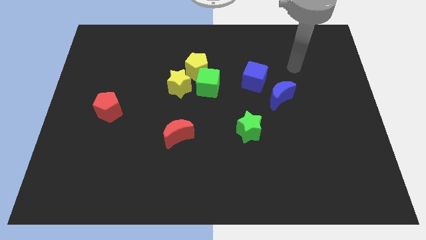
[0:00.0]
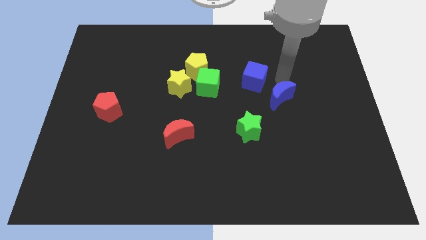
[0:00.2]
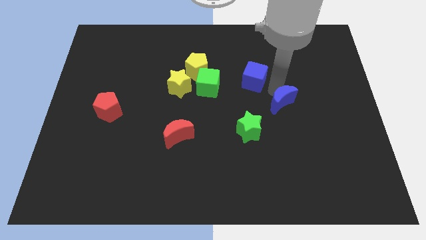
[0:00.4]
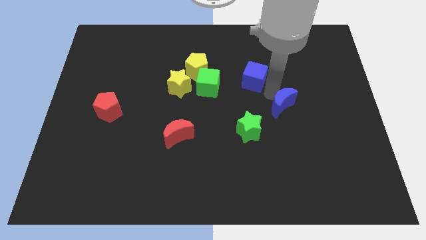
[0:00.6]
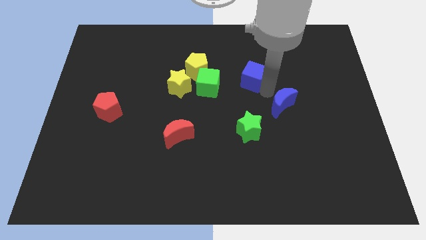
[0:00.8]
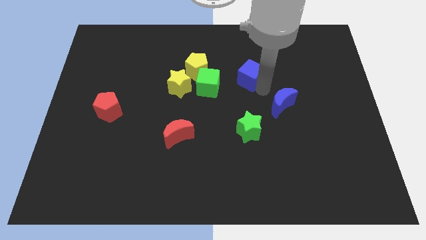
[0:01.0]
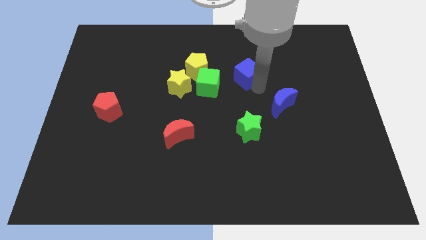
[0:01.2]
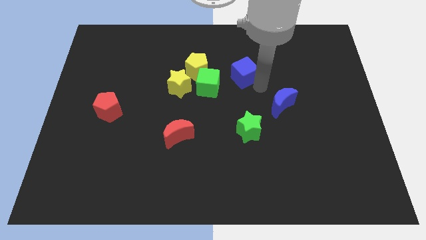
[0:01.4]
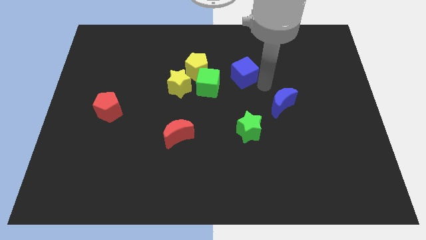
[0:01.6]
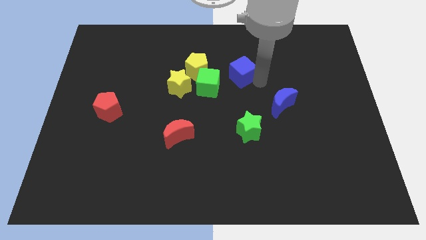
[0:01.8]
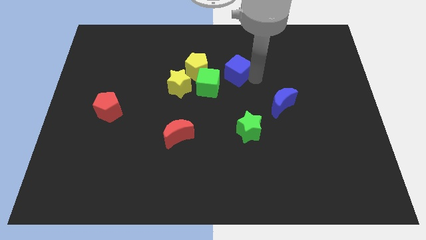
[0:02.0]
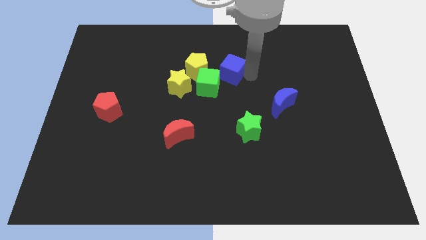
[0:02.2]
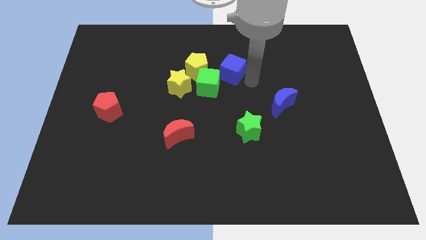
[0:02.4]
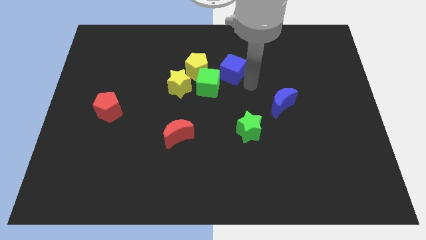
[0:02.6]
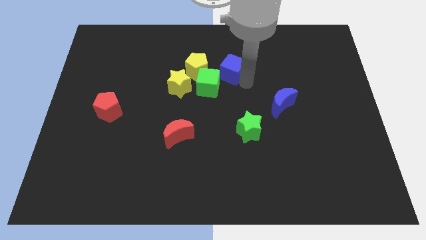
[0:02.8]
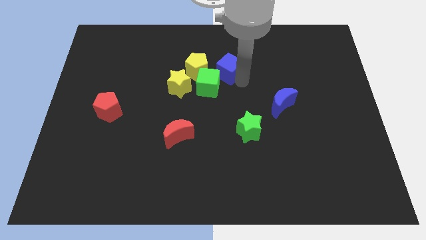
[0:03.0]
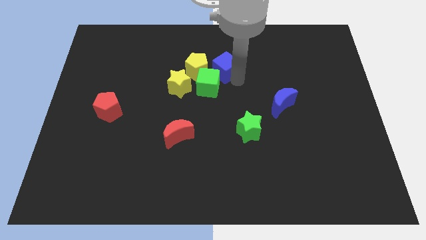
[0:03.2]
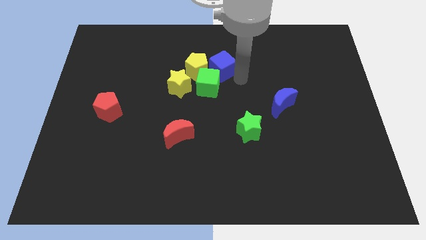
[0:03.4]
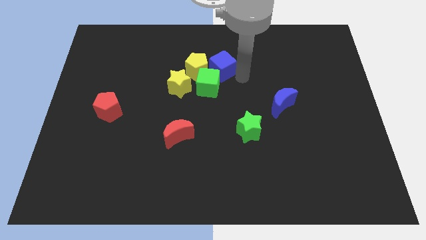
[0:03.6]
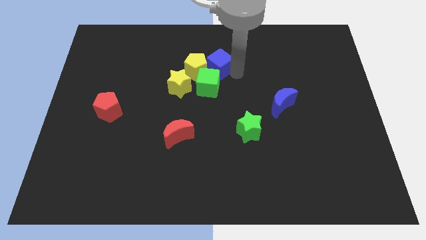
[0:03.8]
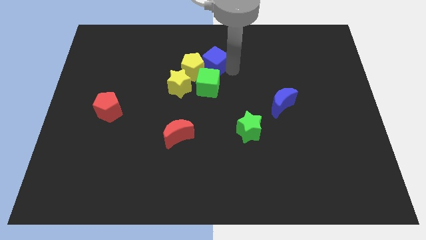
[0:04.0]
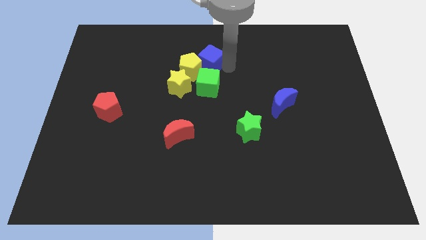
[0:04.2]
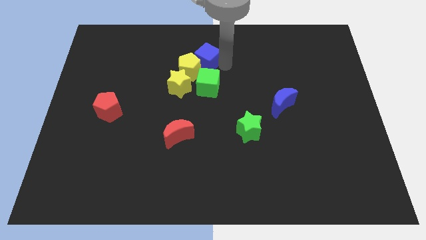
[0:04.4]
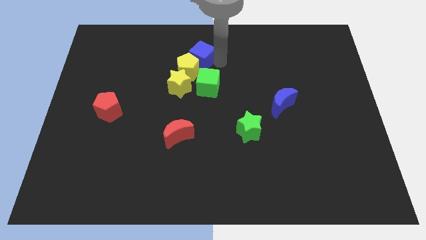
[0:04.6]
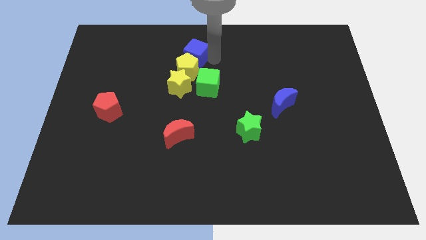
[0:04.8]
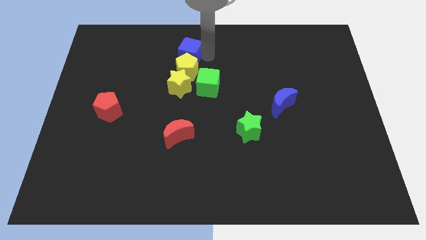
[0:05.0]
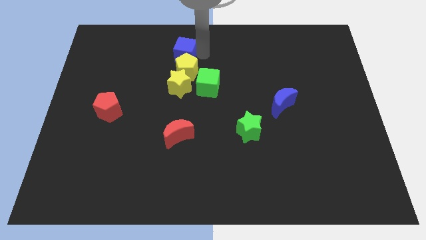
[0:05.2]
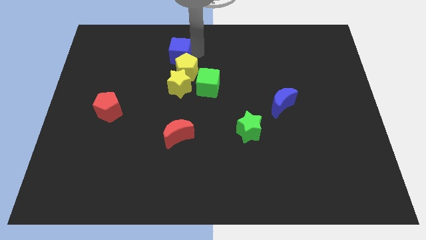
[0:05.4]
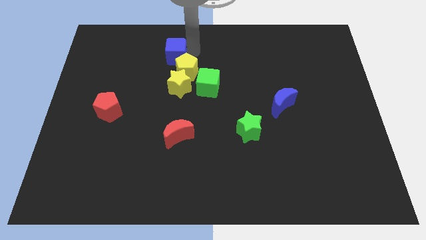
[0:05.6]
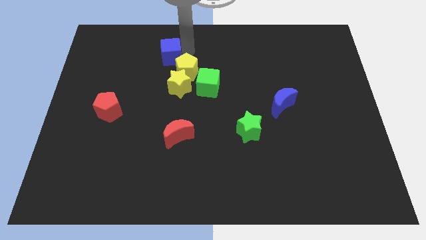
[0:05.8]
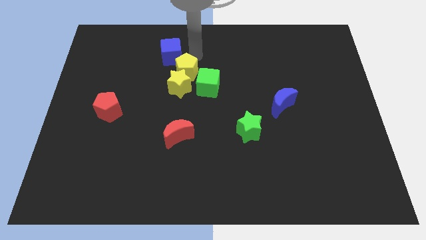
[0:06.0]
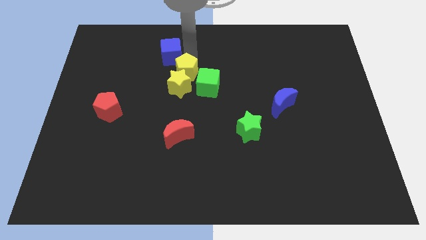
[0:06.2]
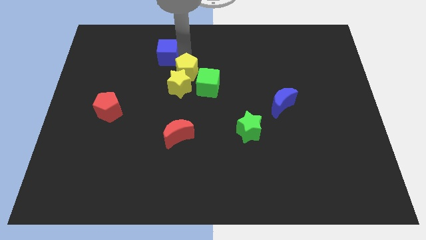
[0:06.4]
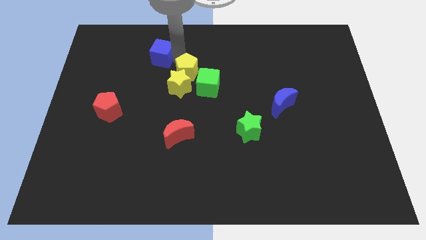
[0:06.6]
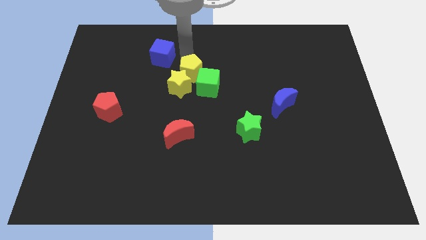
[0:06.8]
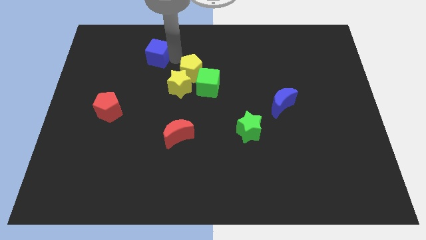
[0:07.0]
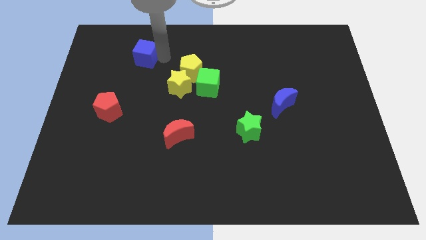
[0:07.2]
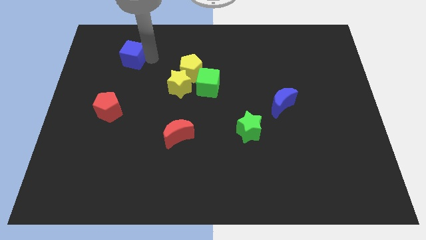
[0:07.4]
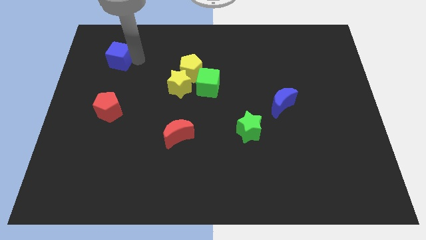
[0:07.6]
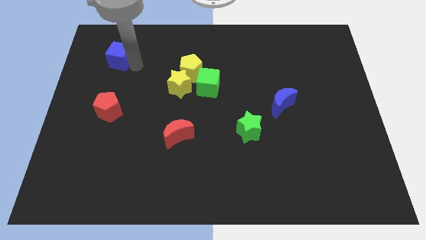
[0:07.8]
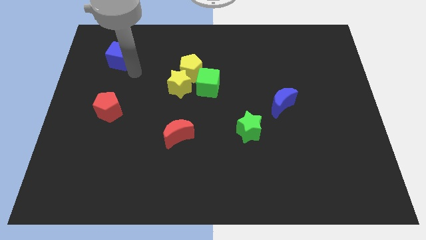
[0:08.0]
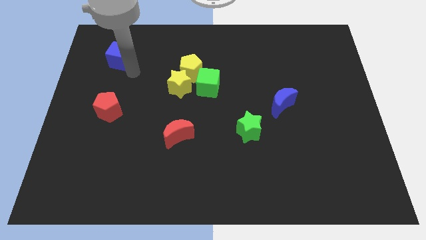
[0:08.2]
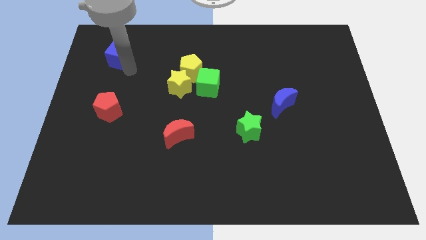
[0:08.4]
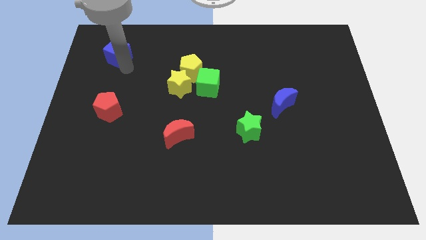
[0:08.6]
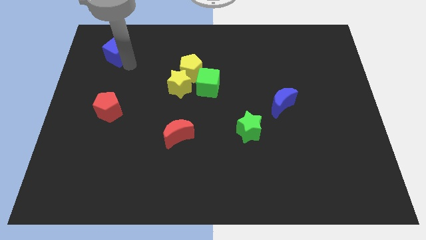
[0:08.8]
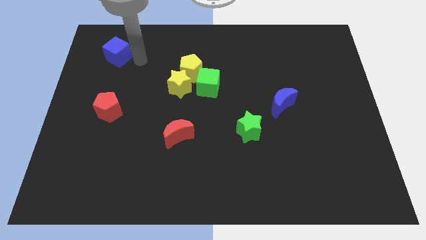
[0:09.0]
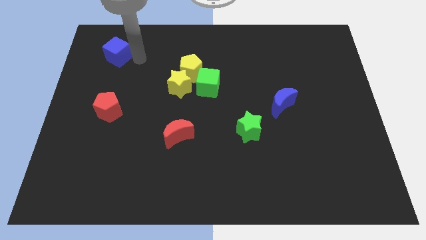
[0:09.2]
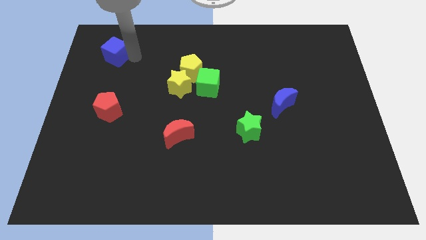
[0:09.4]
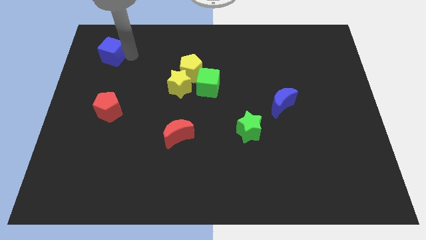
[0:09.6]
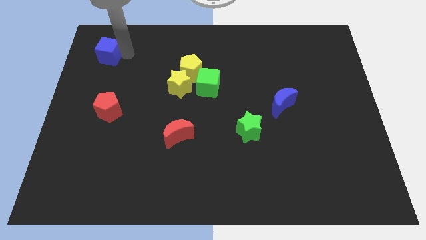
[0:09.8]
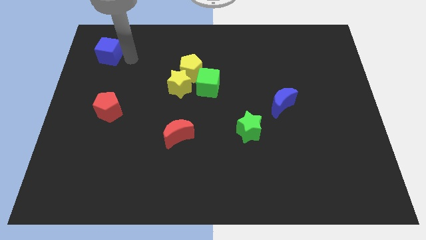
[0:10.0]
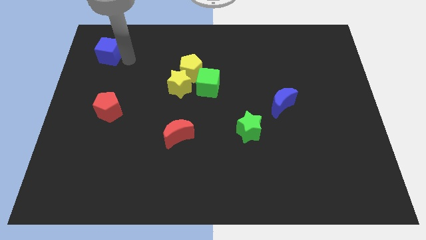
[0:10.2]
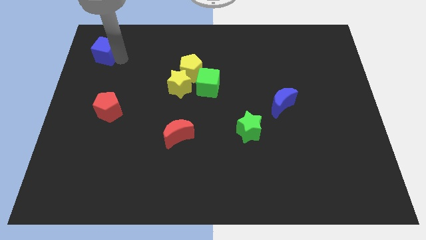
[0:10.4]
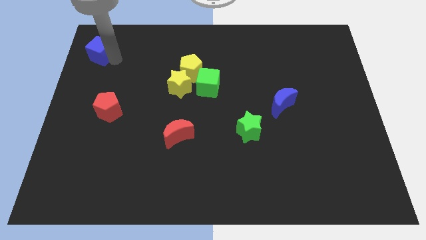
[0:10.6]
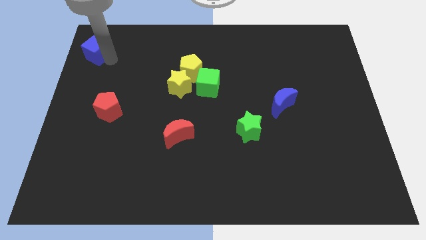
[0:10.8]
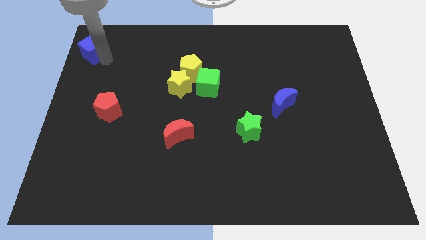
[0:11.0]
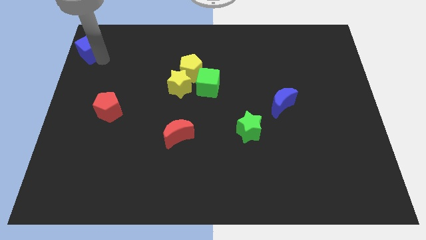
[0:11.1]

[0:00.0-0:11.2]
push the blue cube to the top left
